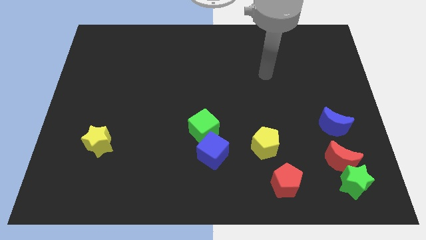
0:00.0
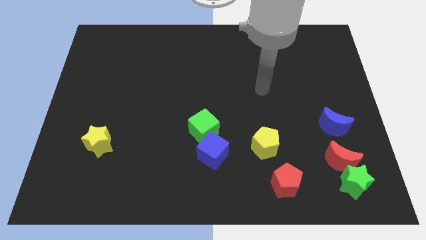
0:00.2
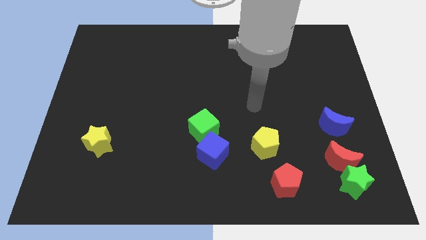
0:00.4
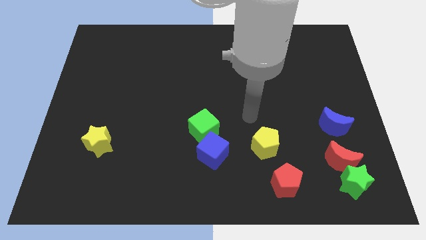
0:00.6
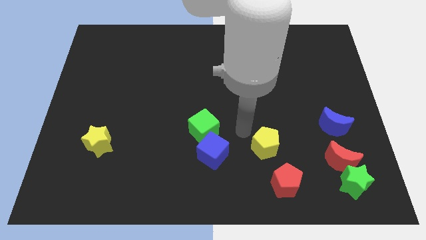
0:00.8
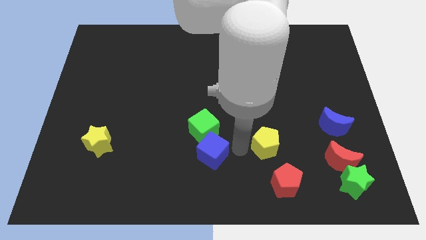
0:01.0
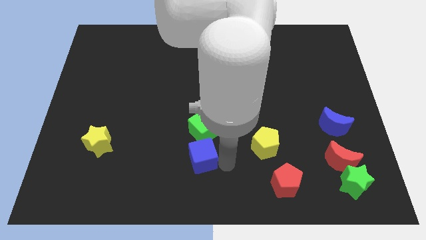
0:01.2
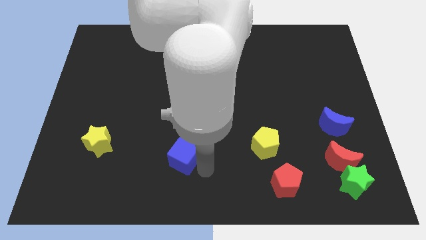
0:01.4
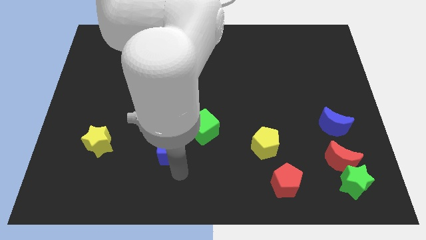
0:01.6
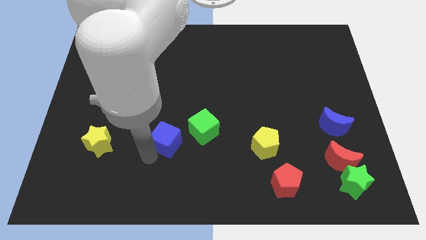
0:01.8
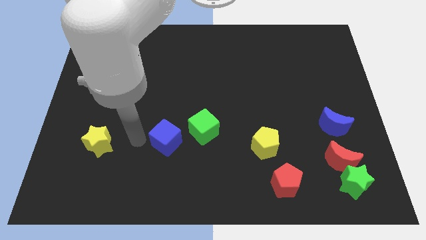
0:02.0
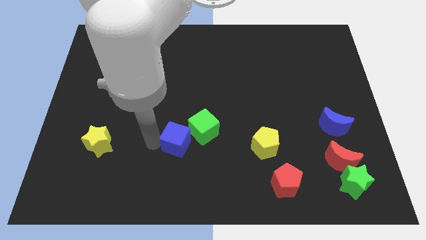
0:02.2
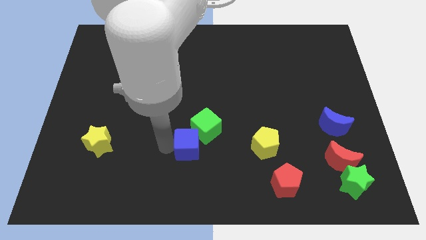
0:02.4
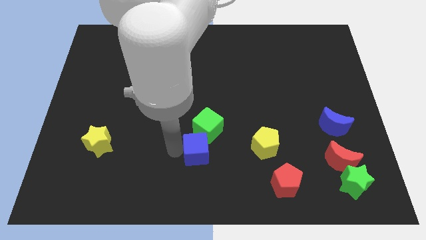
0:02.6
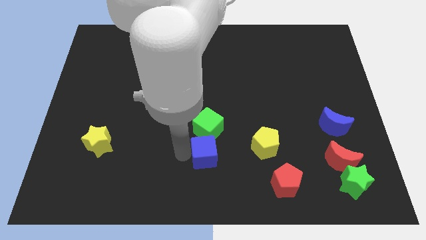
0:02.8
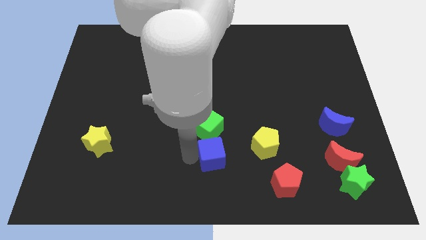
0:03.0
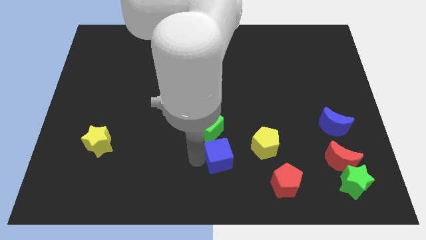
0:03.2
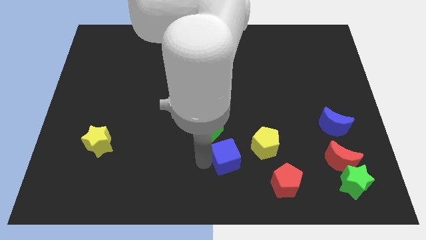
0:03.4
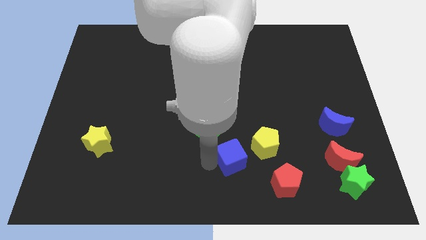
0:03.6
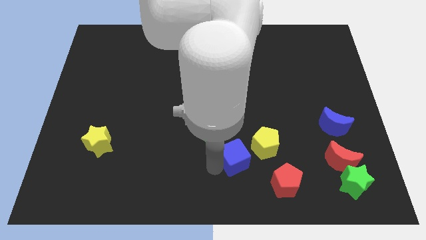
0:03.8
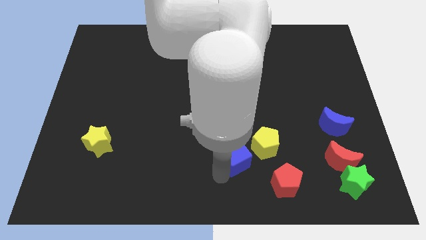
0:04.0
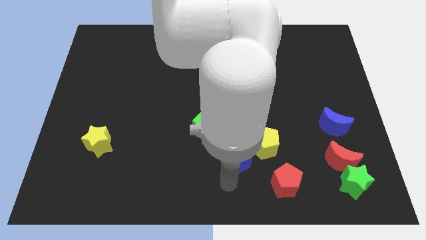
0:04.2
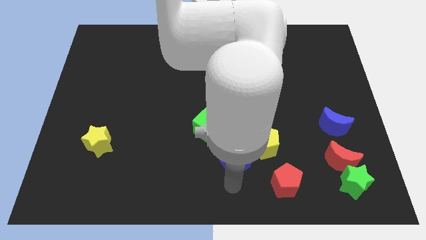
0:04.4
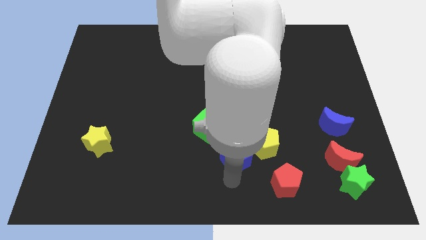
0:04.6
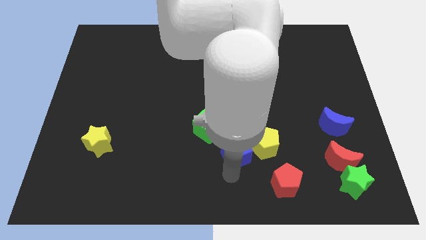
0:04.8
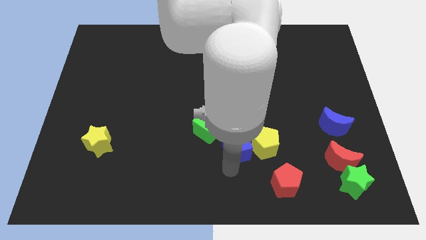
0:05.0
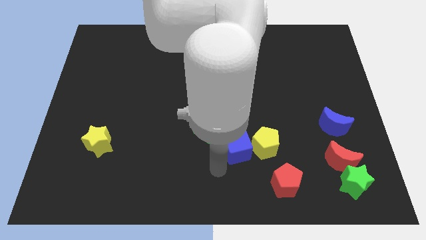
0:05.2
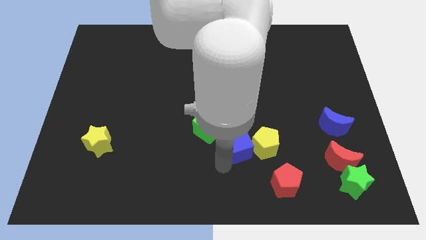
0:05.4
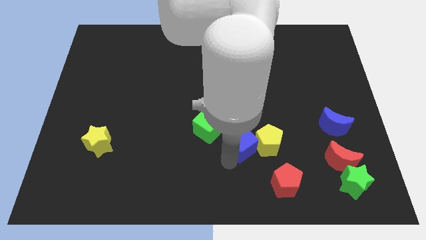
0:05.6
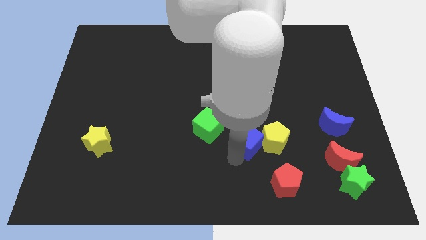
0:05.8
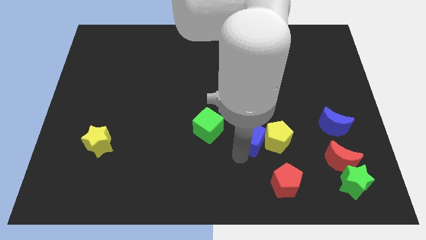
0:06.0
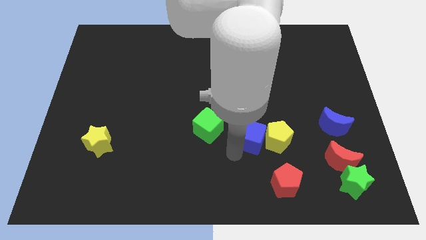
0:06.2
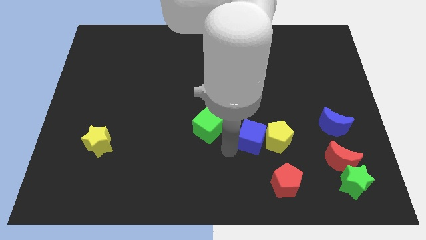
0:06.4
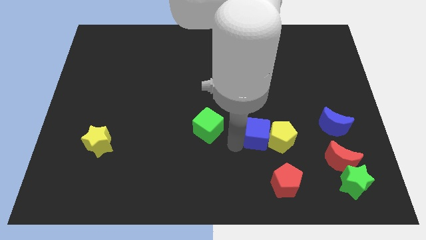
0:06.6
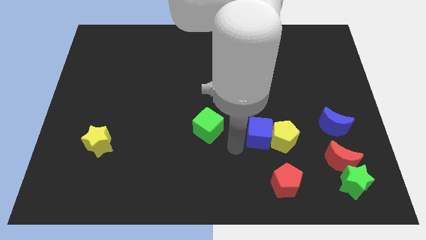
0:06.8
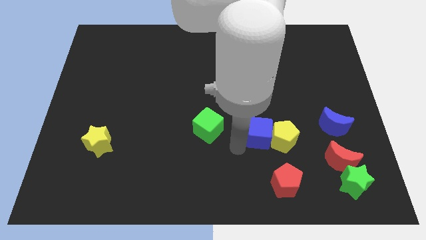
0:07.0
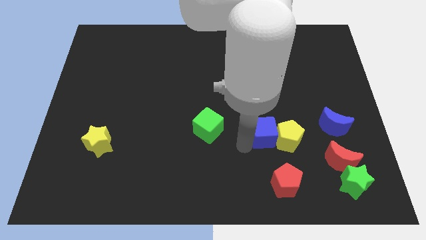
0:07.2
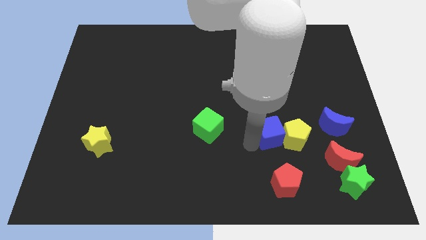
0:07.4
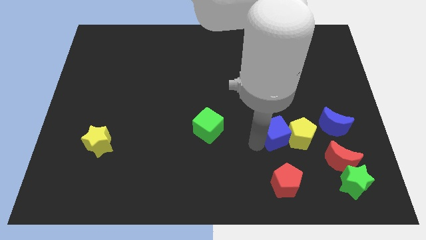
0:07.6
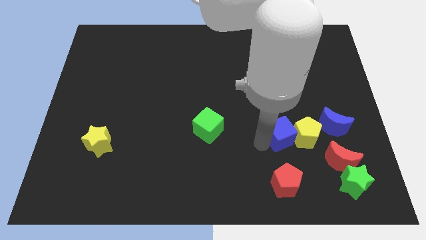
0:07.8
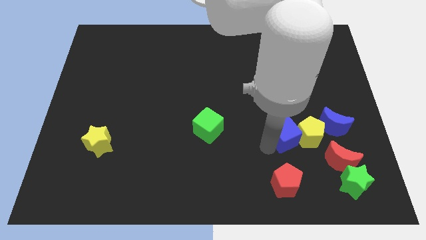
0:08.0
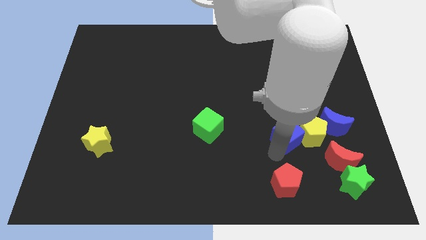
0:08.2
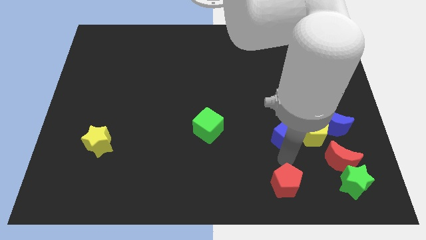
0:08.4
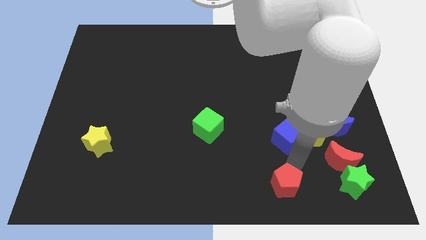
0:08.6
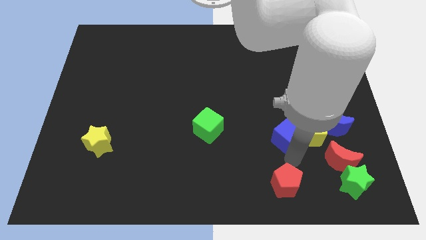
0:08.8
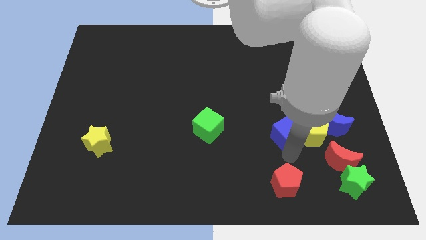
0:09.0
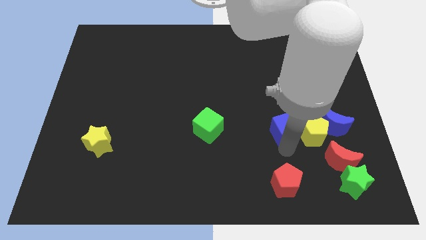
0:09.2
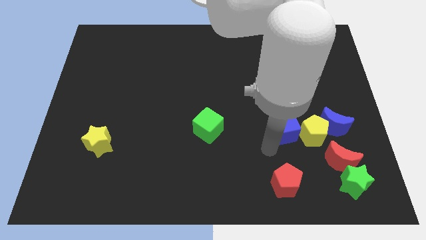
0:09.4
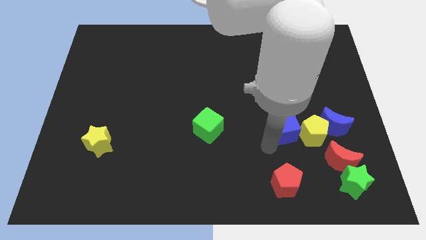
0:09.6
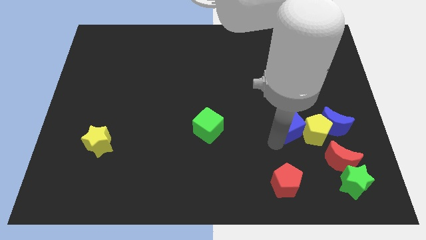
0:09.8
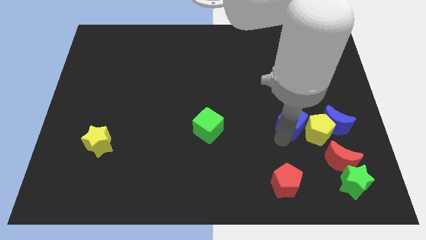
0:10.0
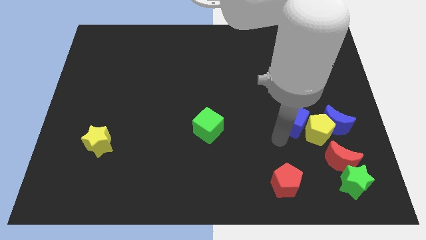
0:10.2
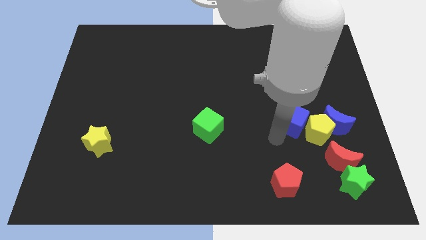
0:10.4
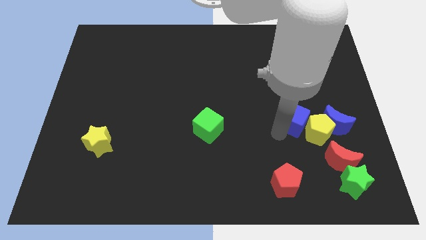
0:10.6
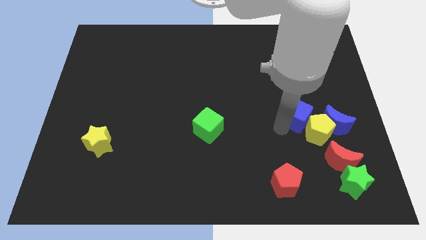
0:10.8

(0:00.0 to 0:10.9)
put the blue cube diagonally up and to the left of the blue moon

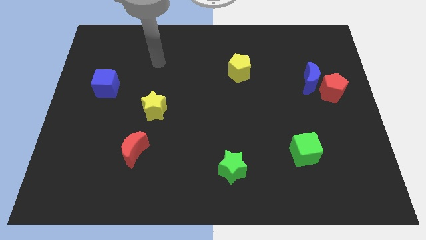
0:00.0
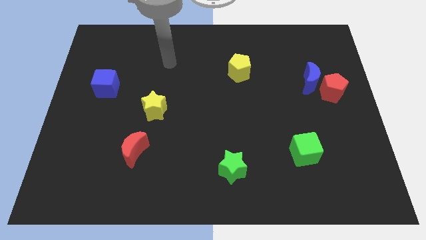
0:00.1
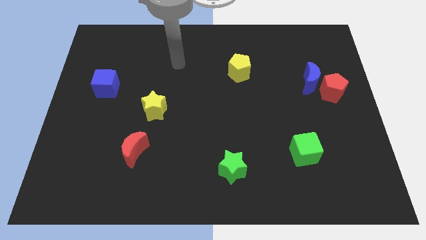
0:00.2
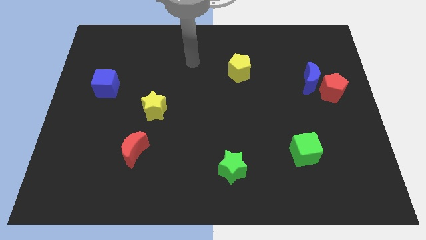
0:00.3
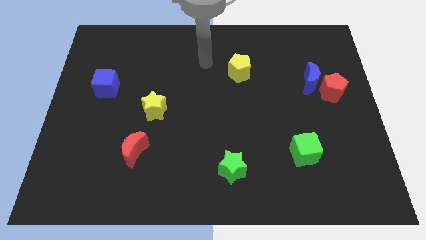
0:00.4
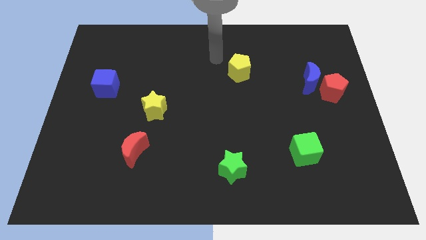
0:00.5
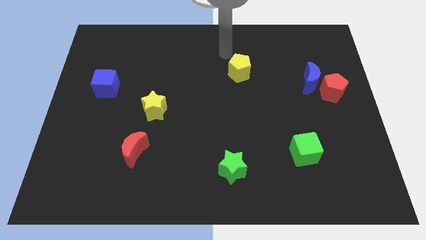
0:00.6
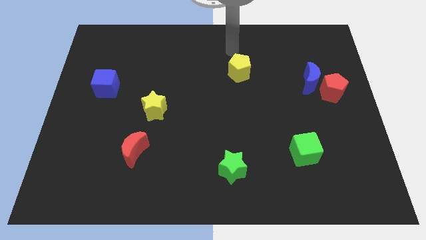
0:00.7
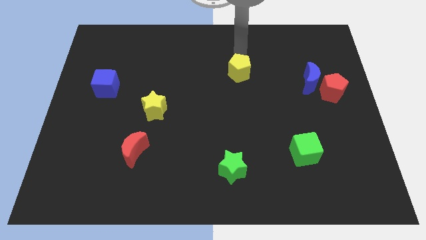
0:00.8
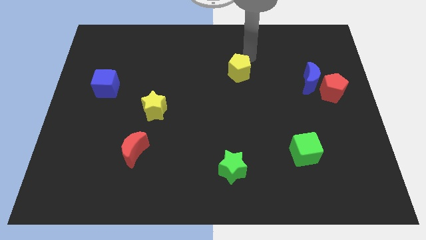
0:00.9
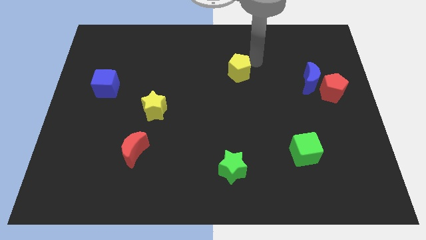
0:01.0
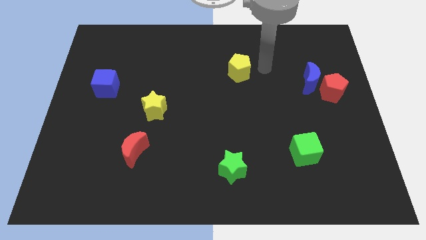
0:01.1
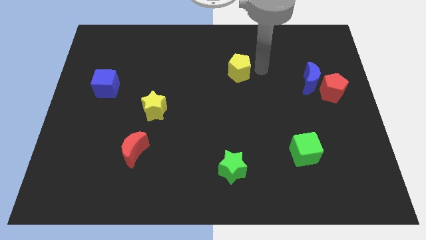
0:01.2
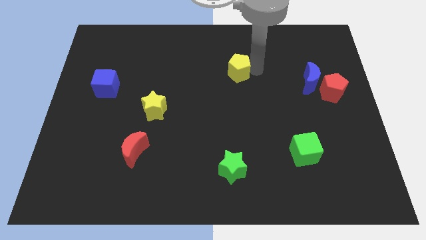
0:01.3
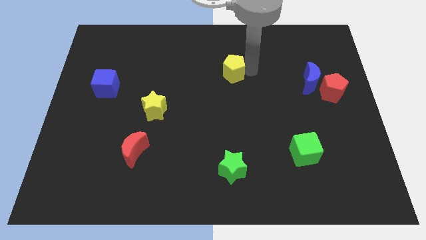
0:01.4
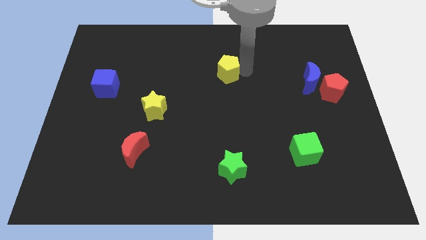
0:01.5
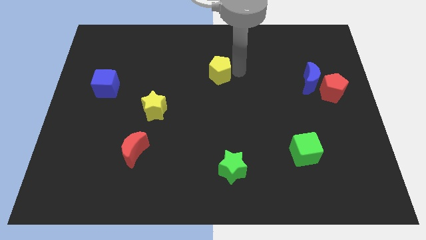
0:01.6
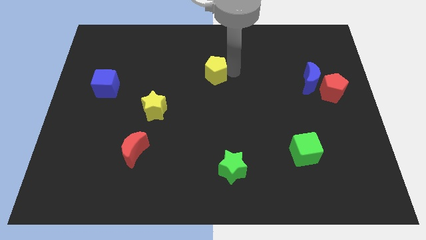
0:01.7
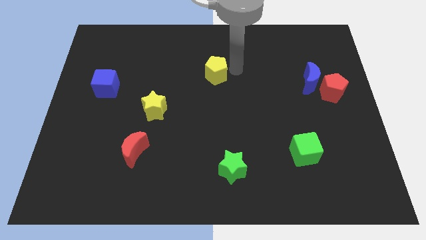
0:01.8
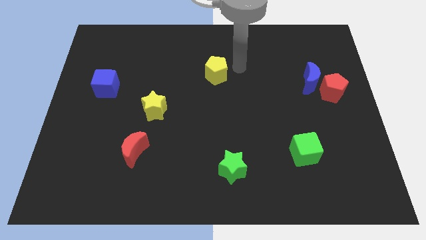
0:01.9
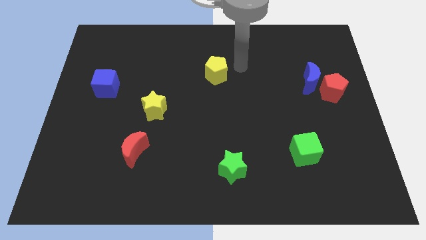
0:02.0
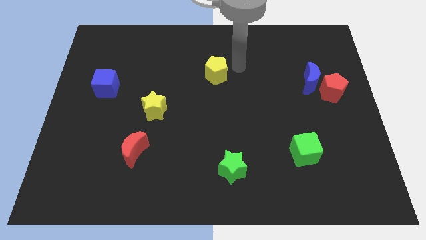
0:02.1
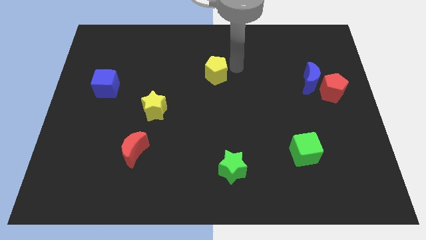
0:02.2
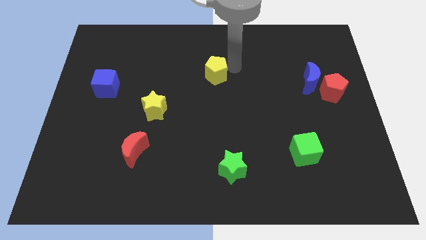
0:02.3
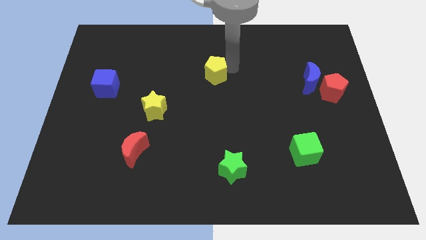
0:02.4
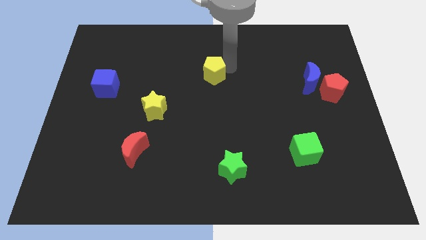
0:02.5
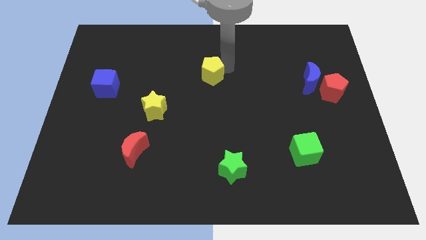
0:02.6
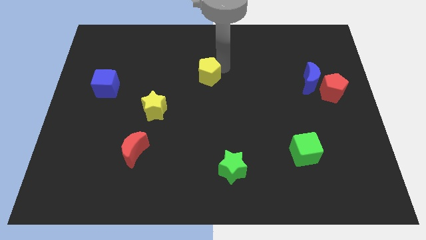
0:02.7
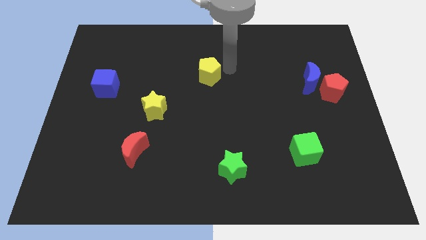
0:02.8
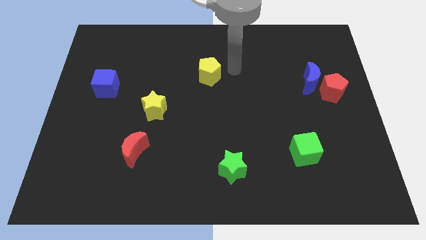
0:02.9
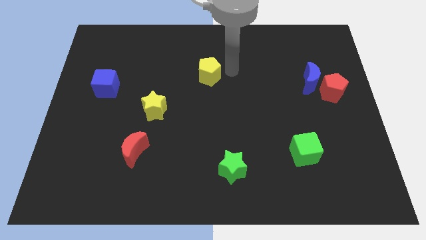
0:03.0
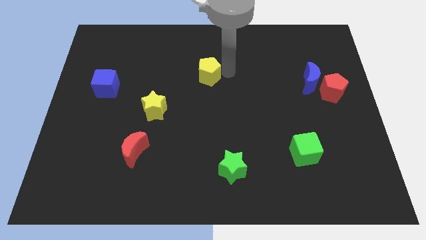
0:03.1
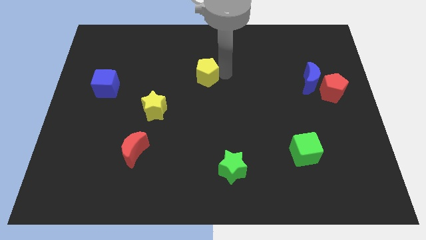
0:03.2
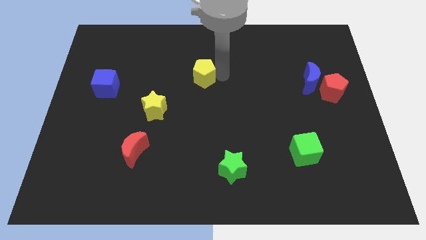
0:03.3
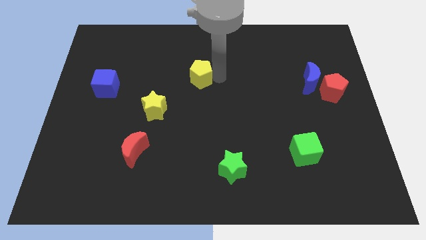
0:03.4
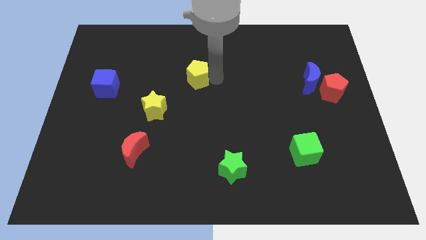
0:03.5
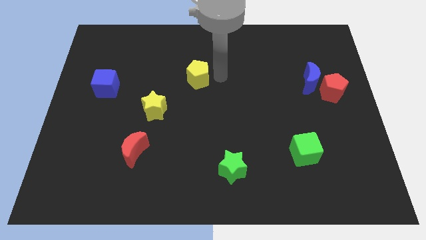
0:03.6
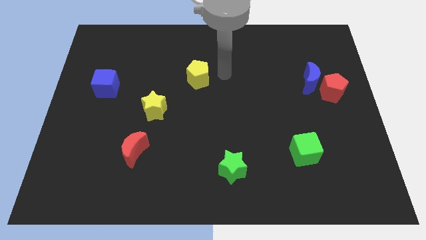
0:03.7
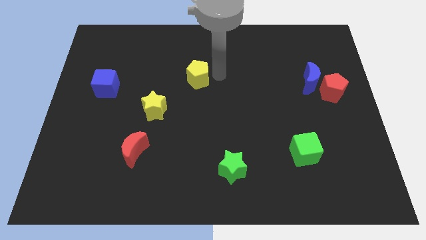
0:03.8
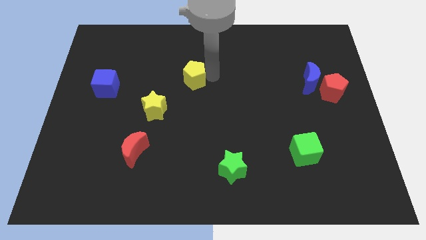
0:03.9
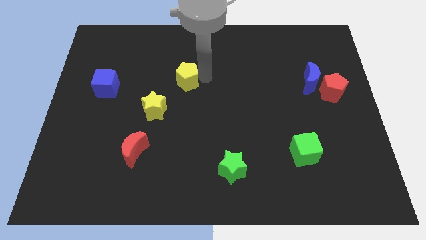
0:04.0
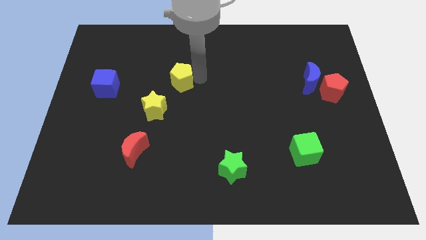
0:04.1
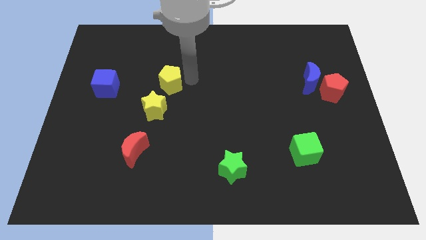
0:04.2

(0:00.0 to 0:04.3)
put the yellow pentagon just right of the blue cube
